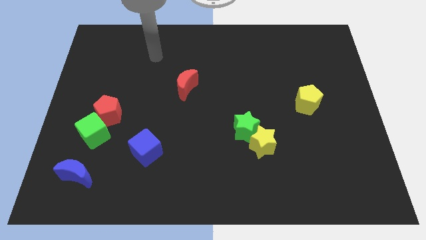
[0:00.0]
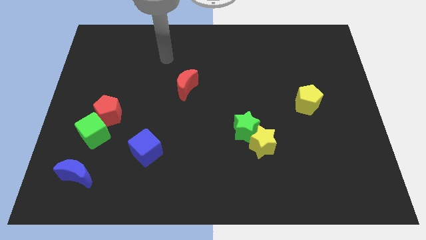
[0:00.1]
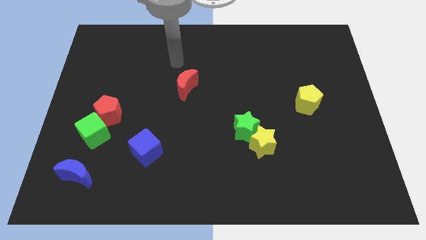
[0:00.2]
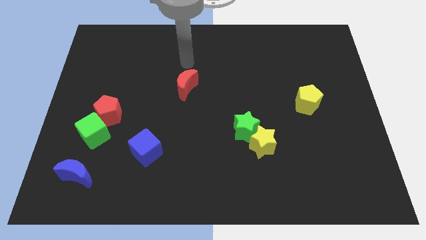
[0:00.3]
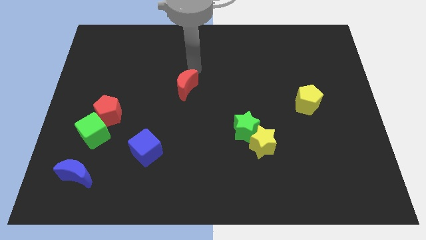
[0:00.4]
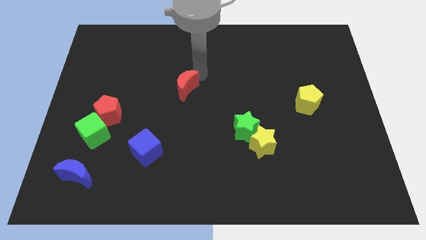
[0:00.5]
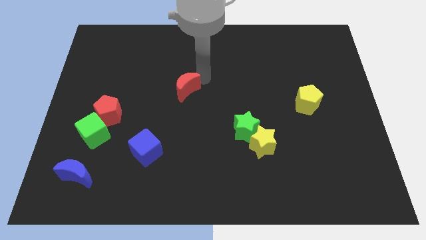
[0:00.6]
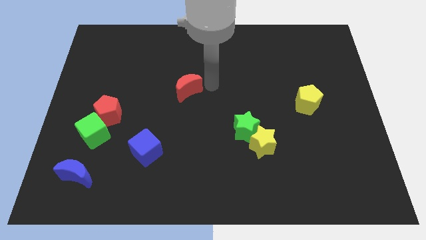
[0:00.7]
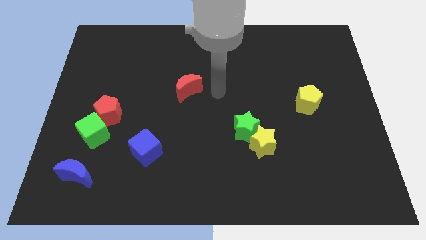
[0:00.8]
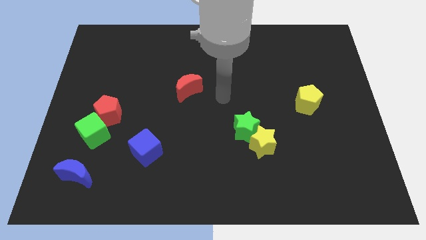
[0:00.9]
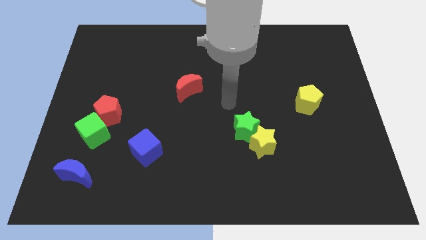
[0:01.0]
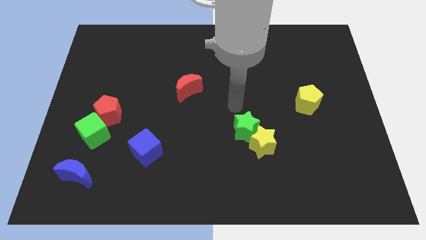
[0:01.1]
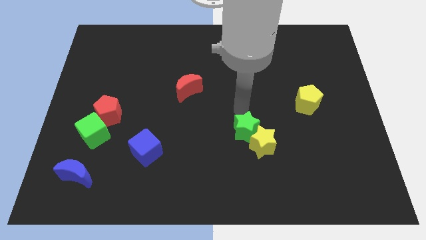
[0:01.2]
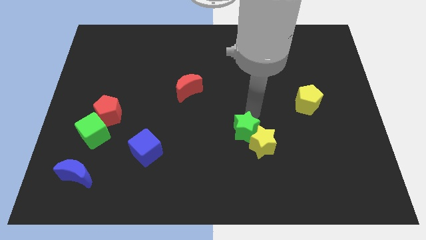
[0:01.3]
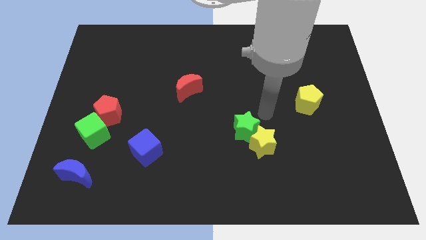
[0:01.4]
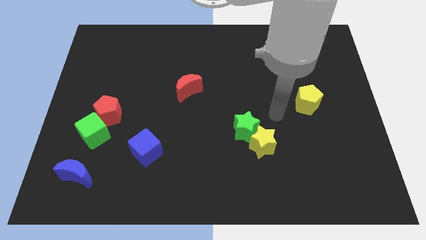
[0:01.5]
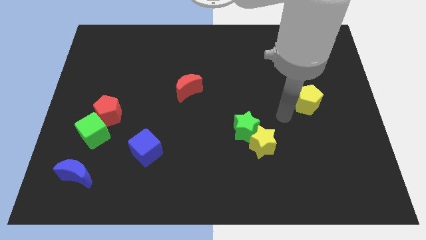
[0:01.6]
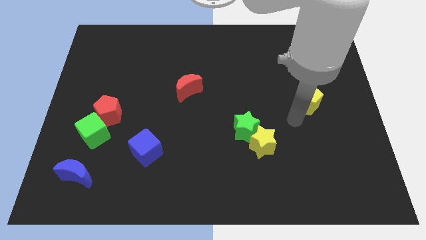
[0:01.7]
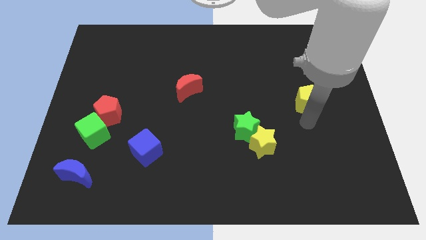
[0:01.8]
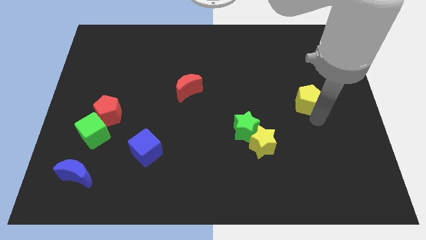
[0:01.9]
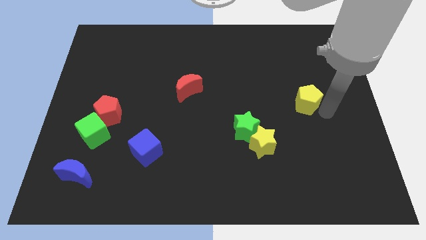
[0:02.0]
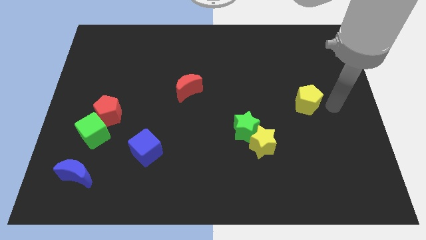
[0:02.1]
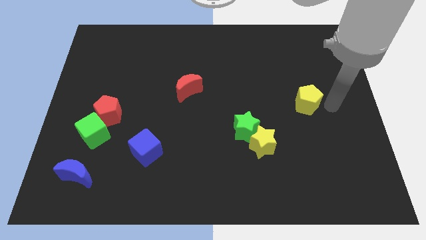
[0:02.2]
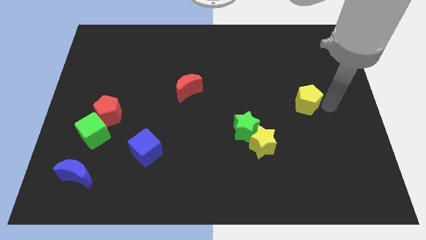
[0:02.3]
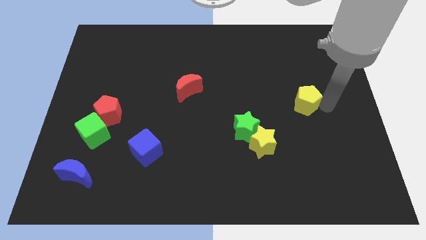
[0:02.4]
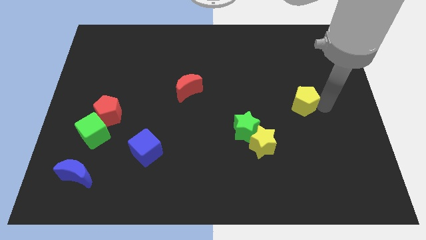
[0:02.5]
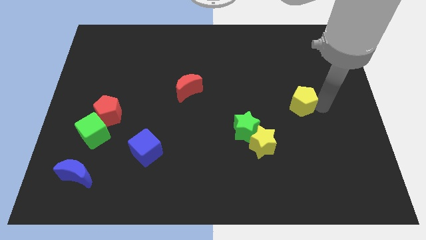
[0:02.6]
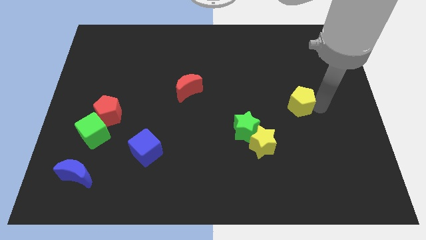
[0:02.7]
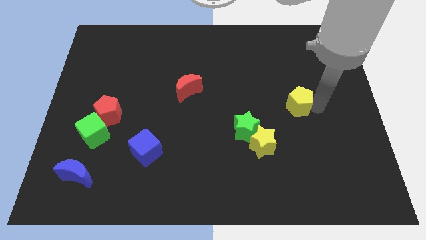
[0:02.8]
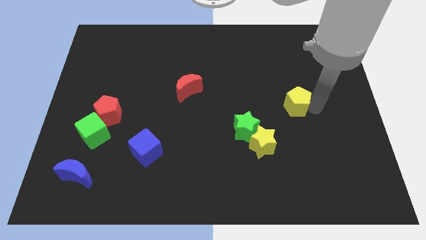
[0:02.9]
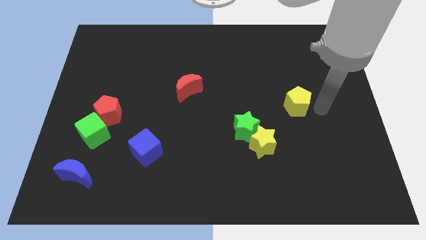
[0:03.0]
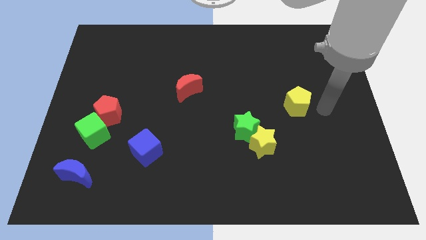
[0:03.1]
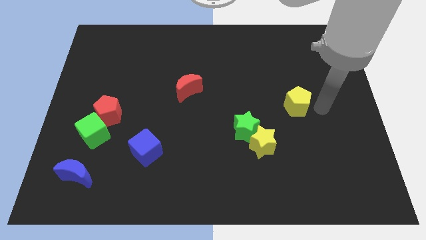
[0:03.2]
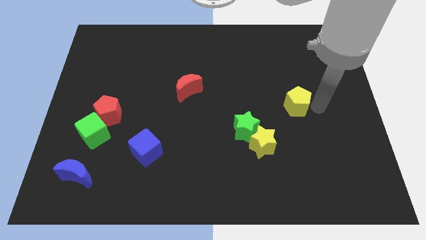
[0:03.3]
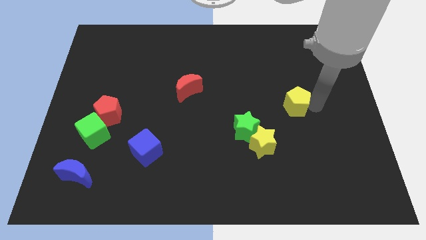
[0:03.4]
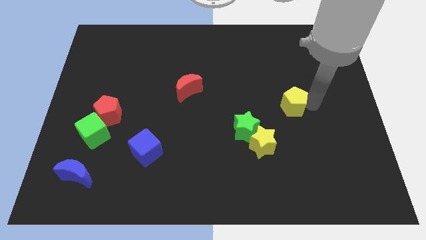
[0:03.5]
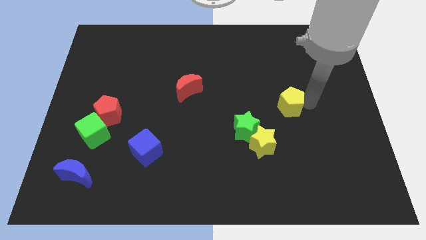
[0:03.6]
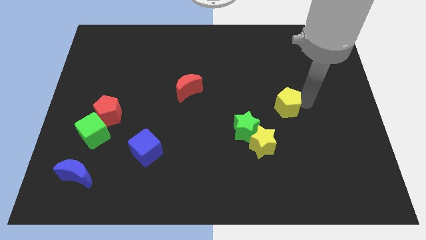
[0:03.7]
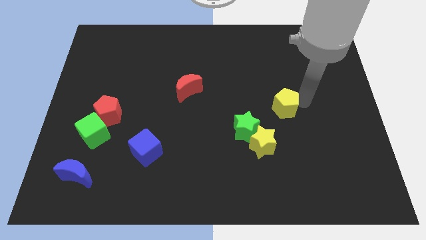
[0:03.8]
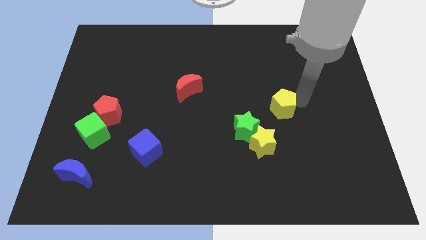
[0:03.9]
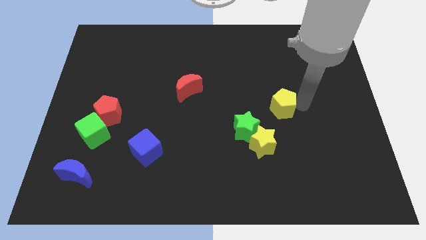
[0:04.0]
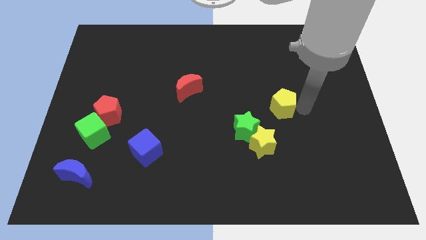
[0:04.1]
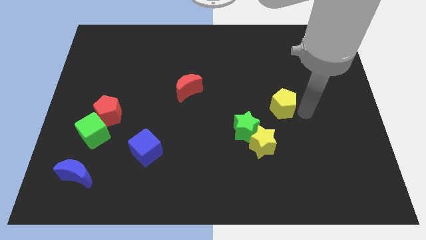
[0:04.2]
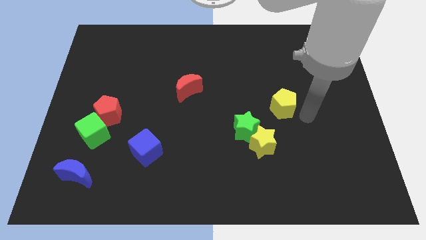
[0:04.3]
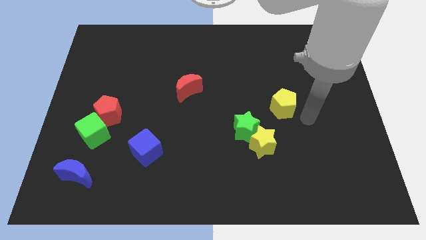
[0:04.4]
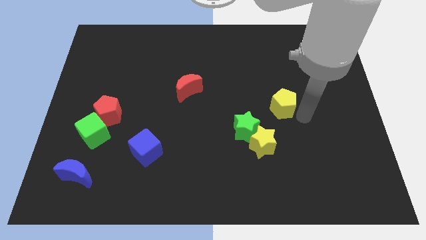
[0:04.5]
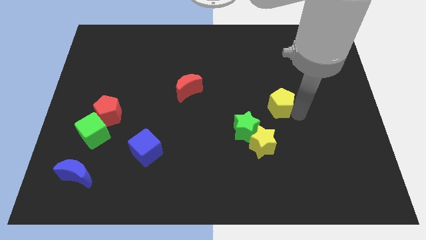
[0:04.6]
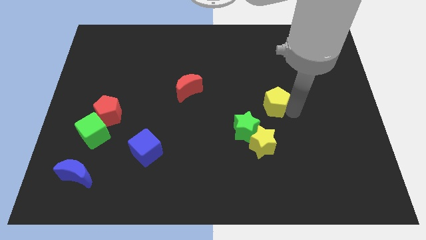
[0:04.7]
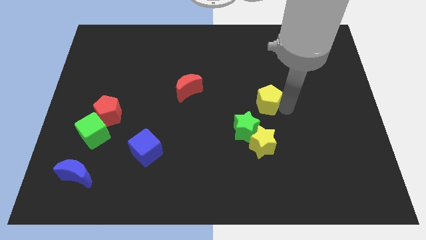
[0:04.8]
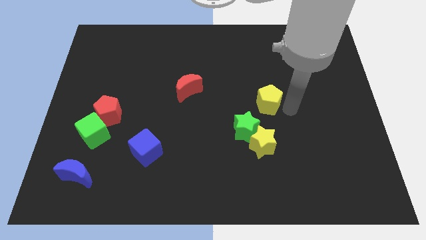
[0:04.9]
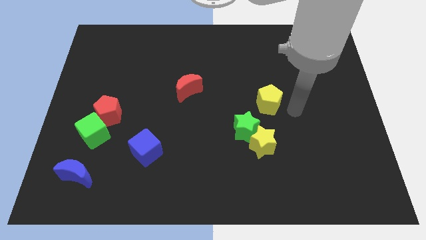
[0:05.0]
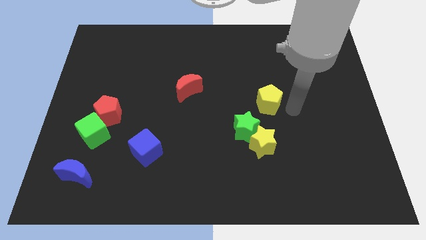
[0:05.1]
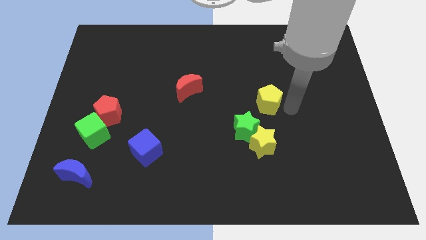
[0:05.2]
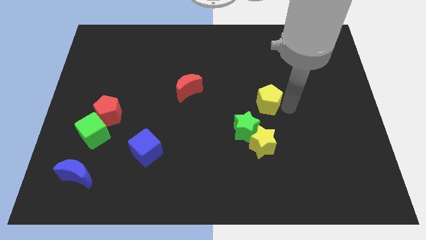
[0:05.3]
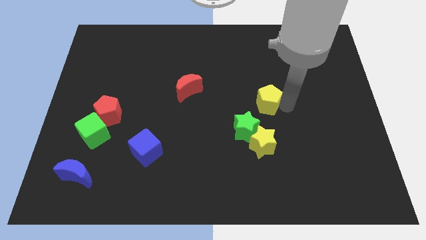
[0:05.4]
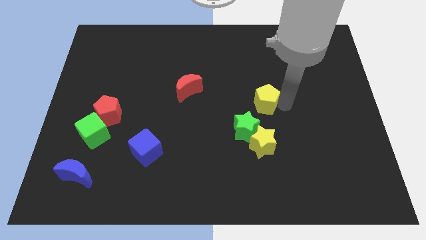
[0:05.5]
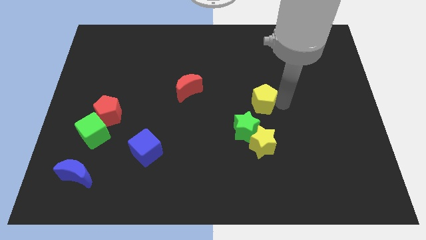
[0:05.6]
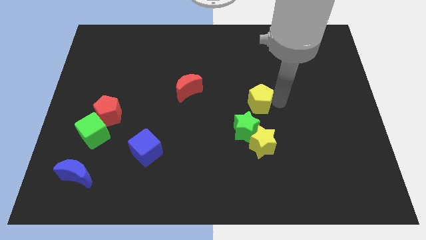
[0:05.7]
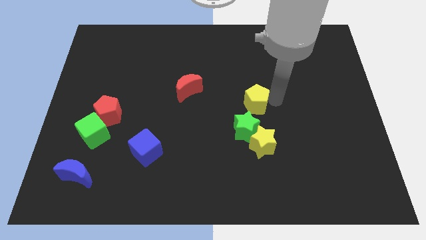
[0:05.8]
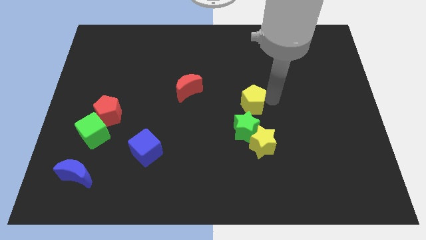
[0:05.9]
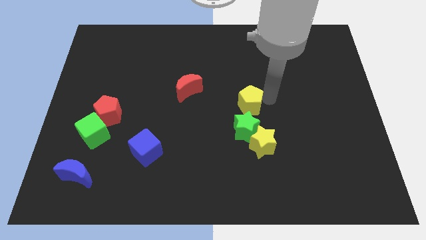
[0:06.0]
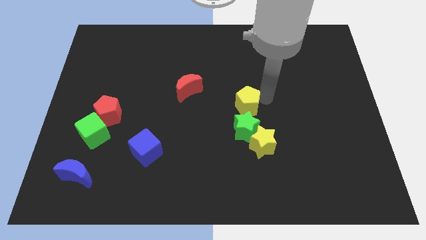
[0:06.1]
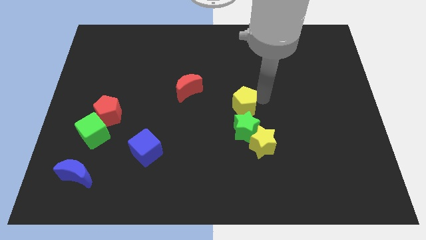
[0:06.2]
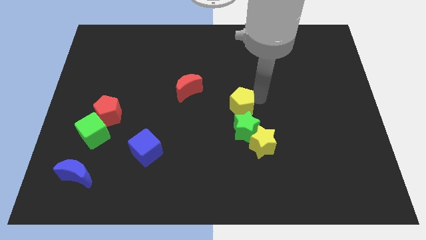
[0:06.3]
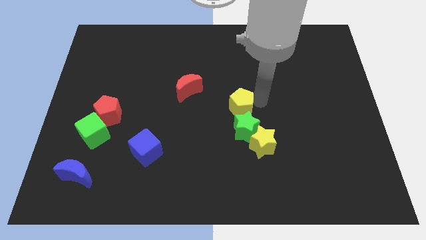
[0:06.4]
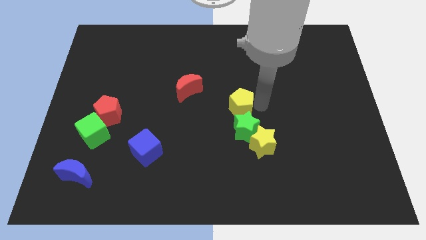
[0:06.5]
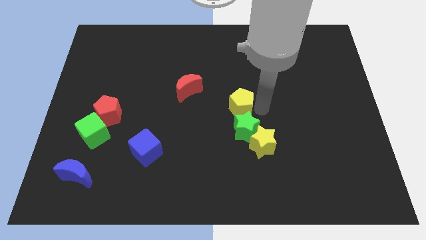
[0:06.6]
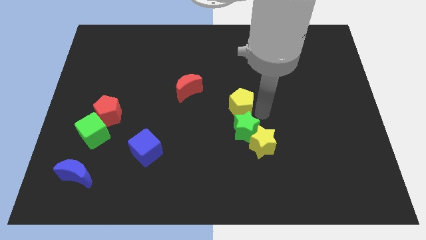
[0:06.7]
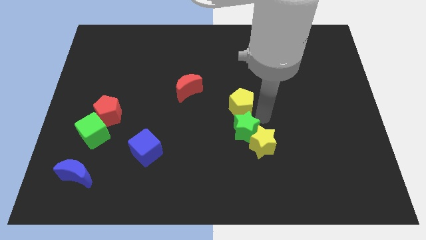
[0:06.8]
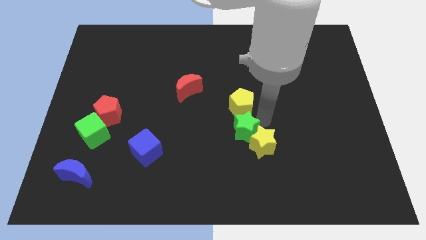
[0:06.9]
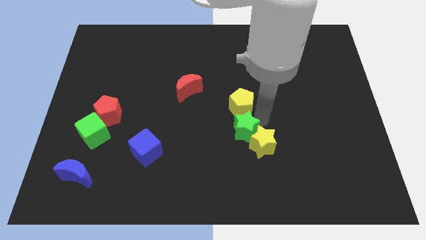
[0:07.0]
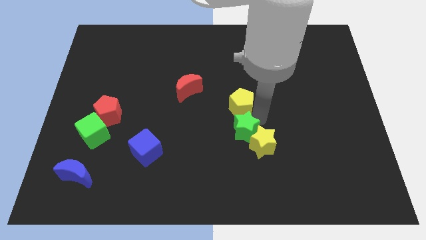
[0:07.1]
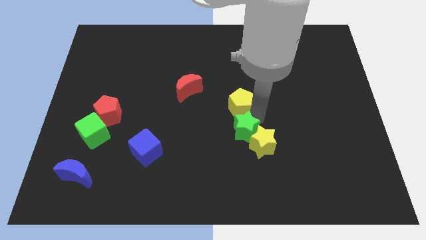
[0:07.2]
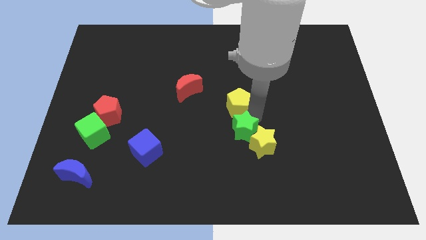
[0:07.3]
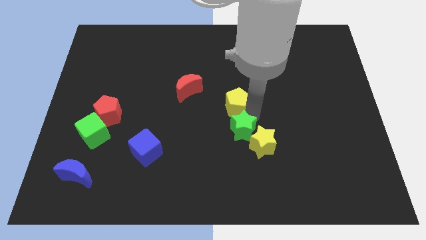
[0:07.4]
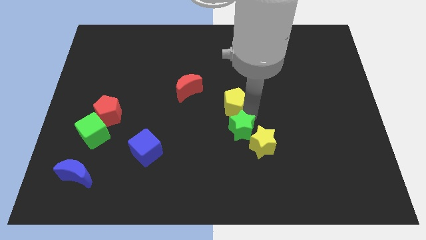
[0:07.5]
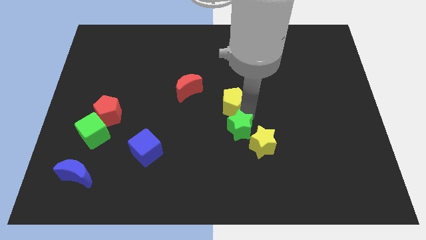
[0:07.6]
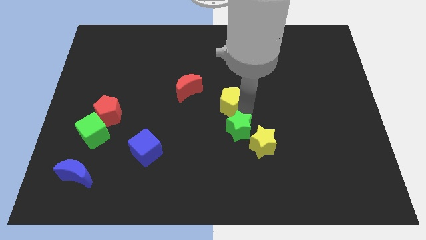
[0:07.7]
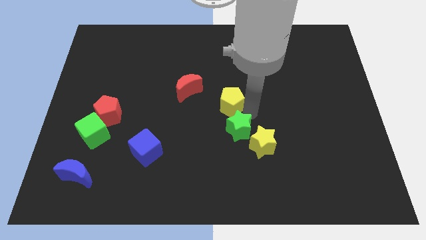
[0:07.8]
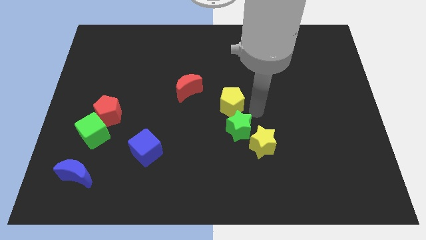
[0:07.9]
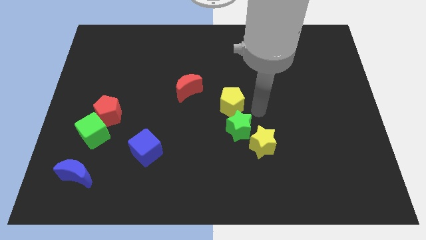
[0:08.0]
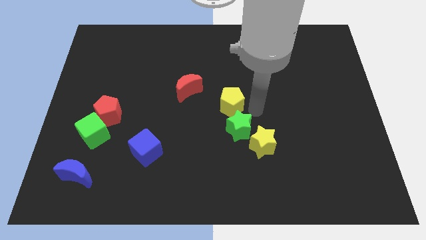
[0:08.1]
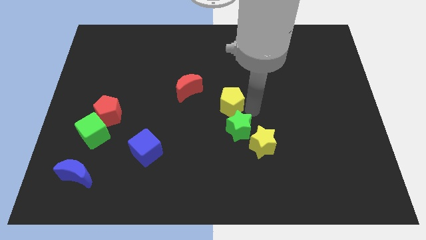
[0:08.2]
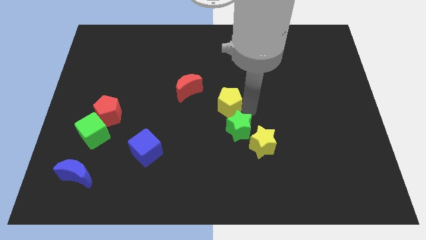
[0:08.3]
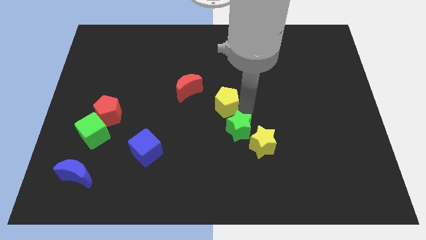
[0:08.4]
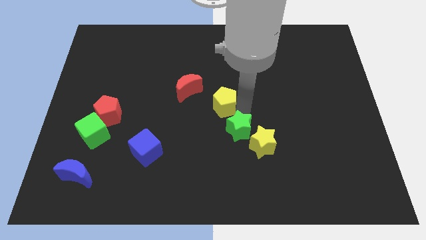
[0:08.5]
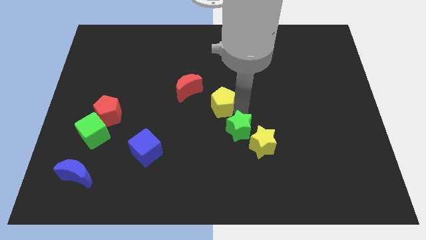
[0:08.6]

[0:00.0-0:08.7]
push the yellow pentagon left
